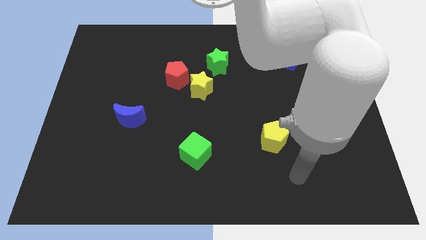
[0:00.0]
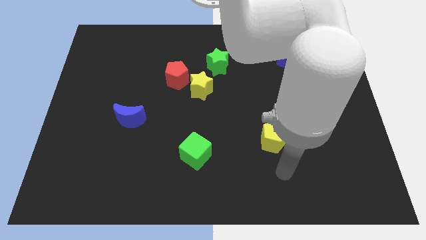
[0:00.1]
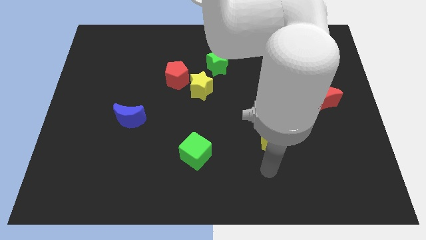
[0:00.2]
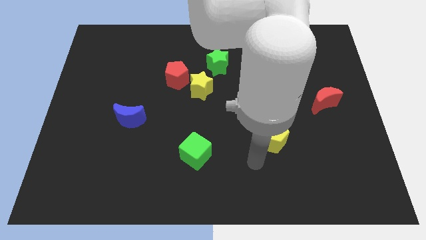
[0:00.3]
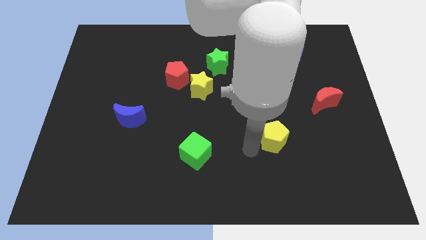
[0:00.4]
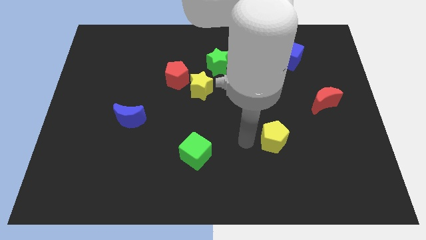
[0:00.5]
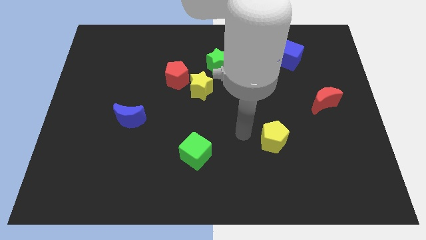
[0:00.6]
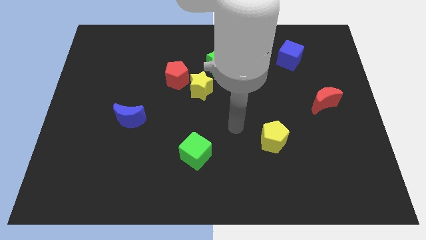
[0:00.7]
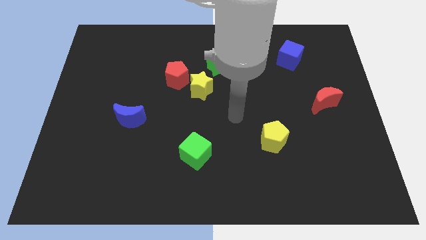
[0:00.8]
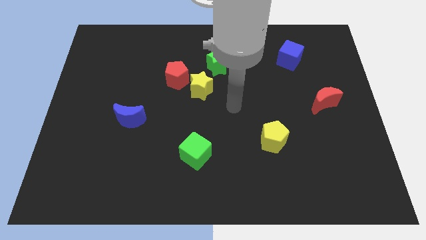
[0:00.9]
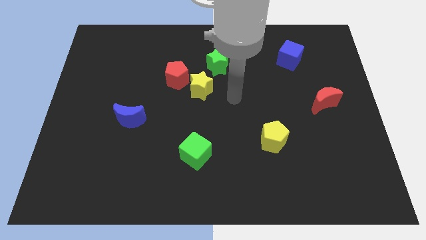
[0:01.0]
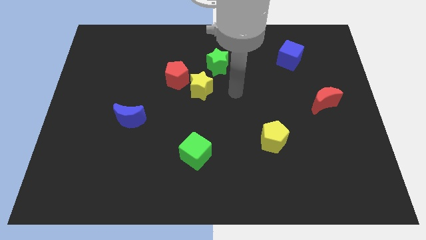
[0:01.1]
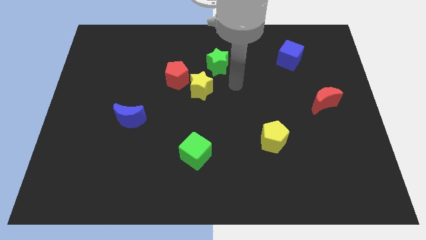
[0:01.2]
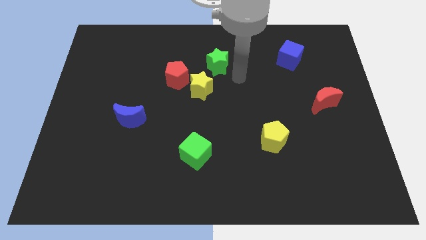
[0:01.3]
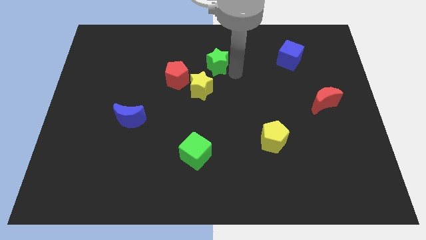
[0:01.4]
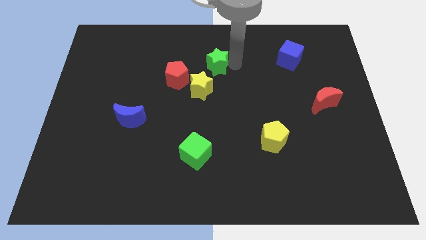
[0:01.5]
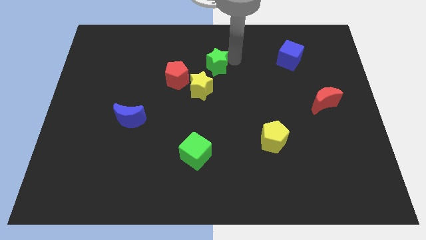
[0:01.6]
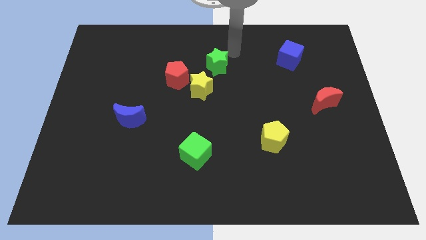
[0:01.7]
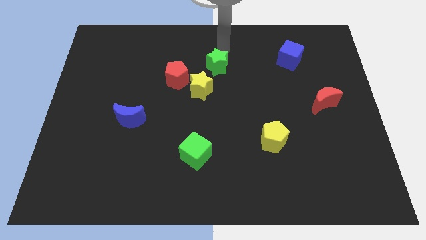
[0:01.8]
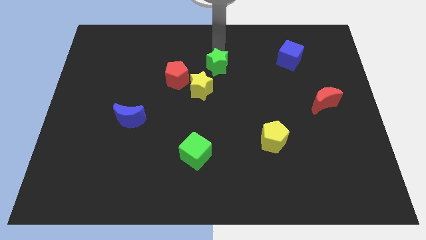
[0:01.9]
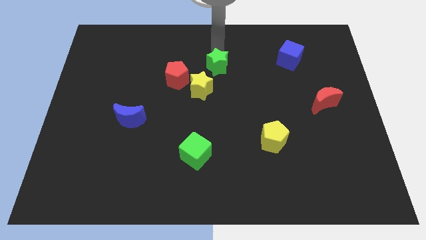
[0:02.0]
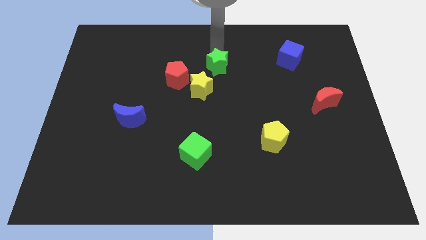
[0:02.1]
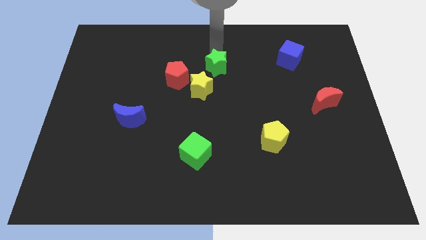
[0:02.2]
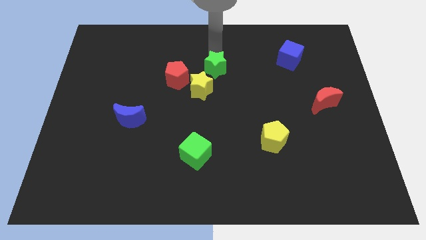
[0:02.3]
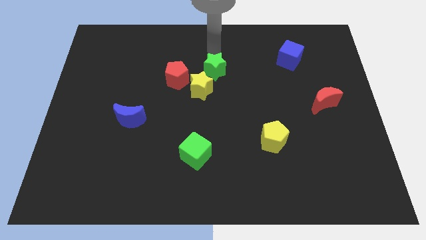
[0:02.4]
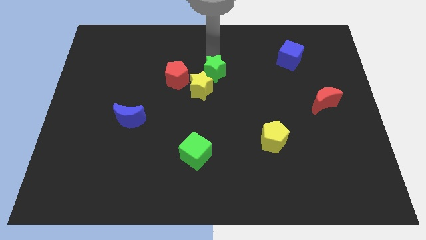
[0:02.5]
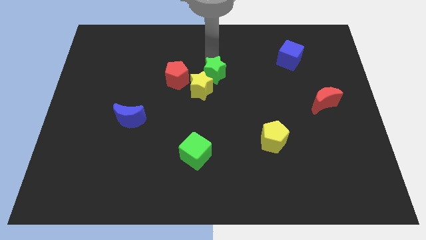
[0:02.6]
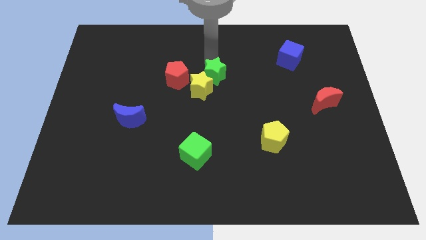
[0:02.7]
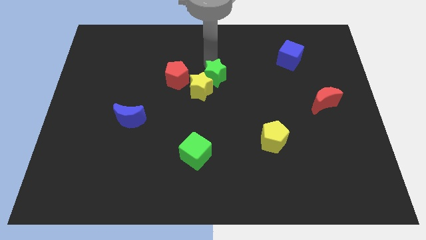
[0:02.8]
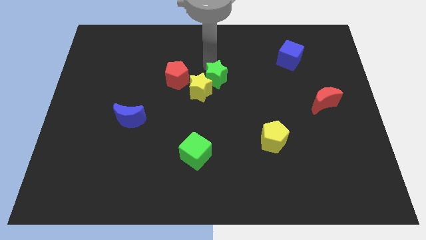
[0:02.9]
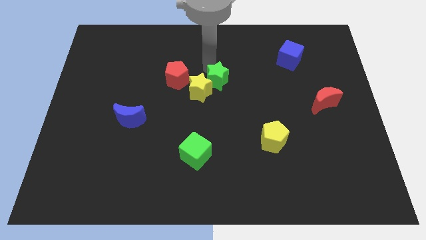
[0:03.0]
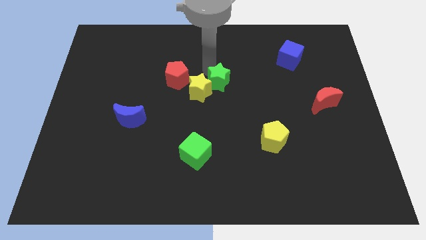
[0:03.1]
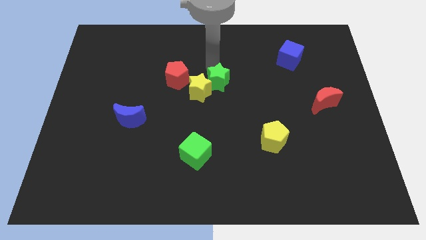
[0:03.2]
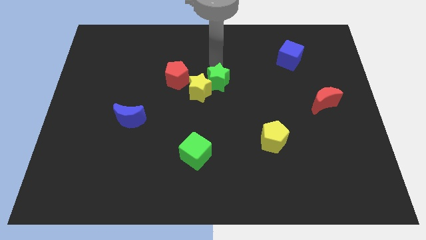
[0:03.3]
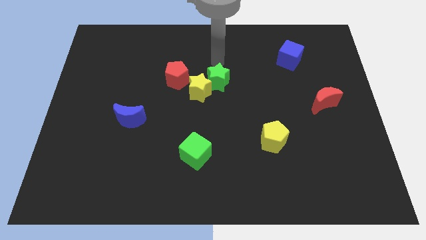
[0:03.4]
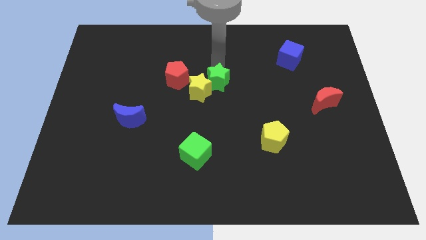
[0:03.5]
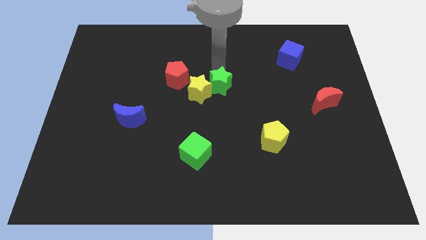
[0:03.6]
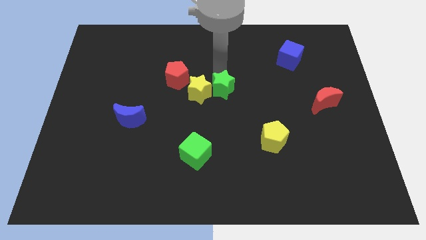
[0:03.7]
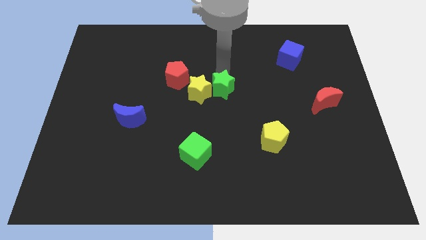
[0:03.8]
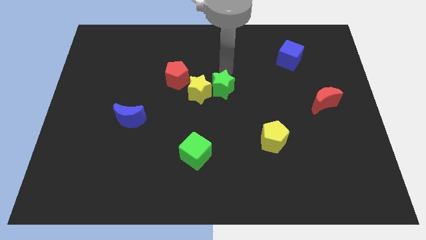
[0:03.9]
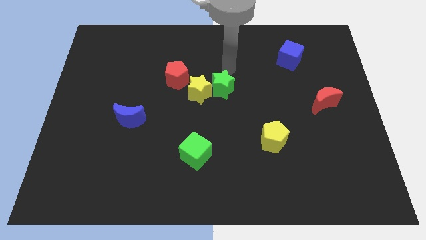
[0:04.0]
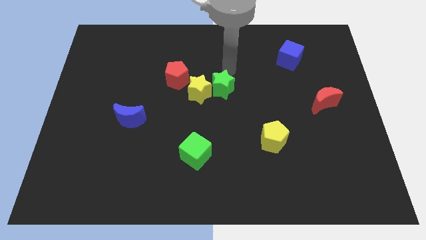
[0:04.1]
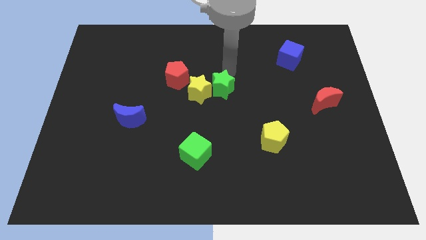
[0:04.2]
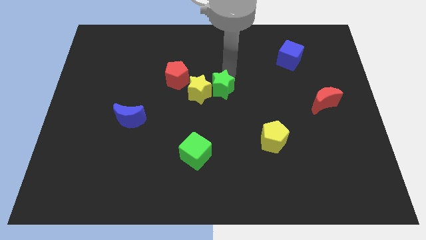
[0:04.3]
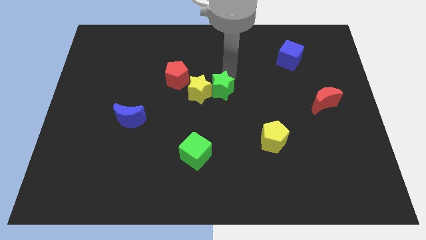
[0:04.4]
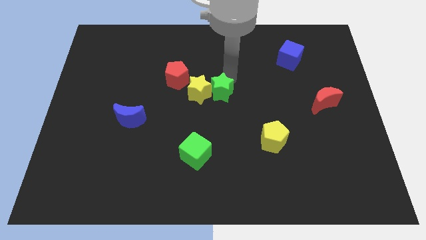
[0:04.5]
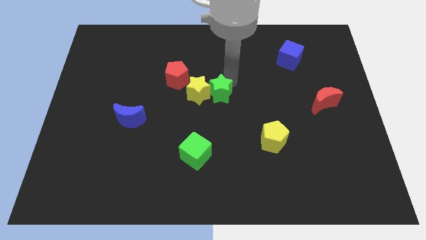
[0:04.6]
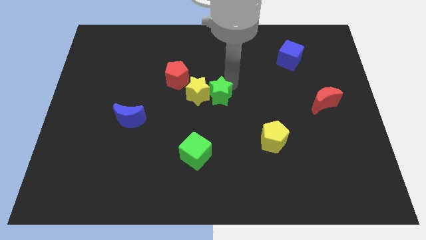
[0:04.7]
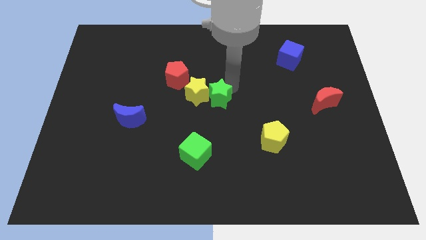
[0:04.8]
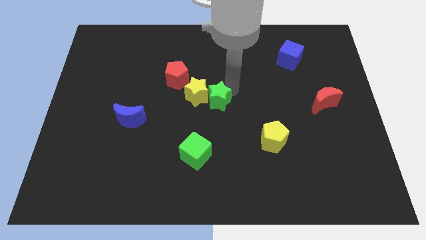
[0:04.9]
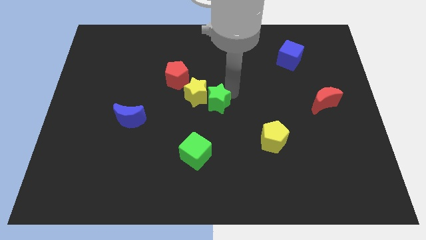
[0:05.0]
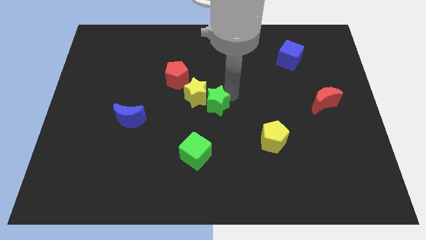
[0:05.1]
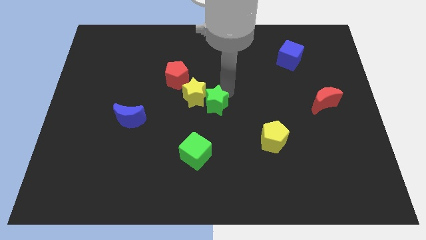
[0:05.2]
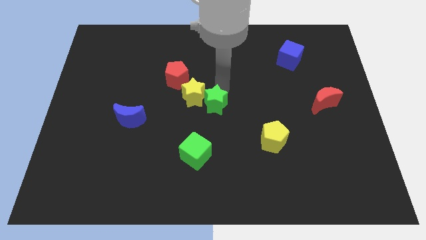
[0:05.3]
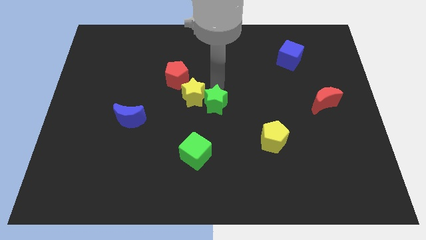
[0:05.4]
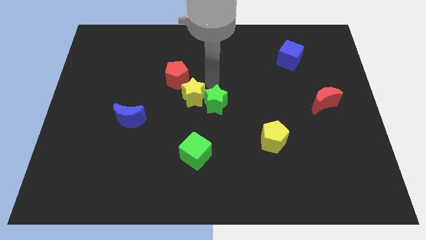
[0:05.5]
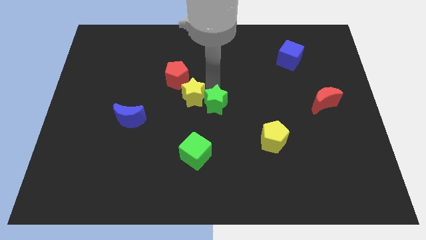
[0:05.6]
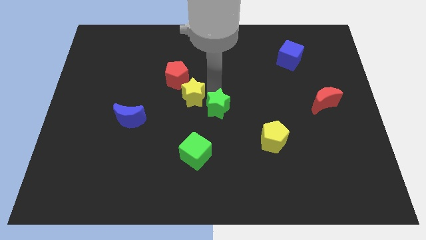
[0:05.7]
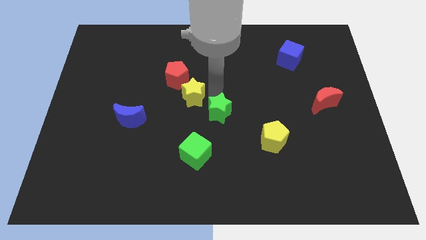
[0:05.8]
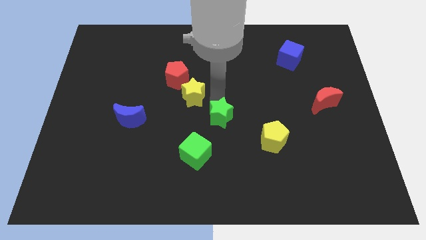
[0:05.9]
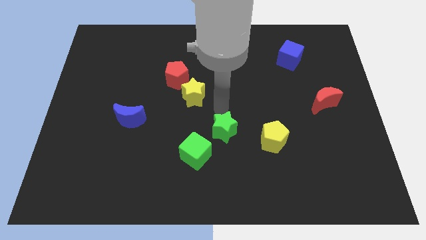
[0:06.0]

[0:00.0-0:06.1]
move the green star down

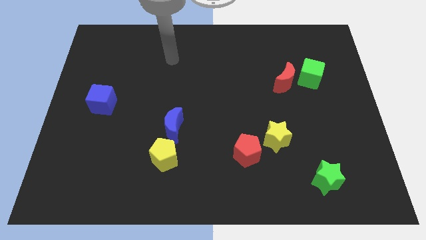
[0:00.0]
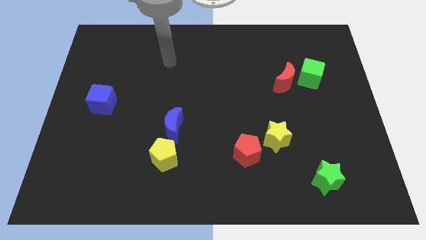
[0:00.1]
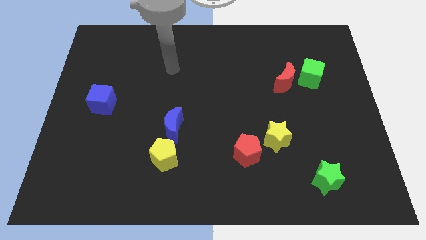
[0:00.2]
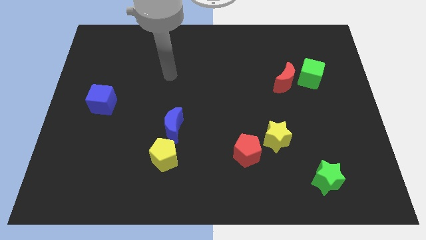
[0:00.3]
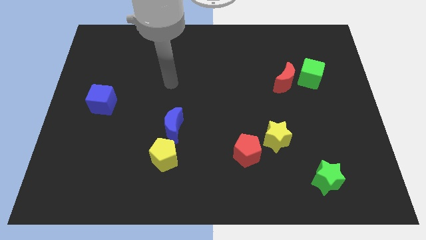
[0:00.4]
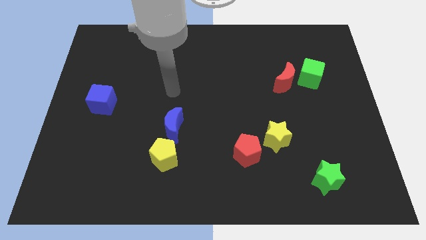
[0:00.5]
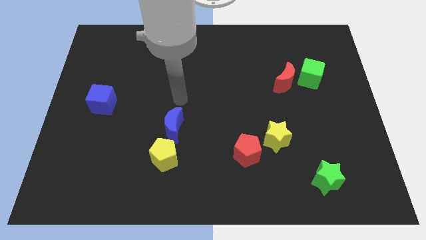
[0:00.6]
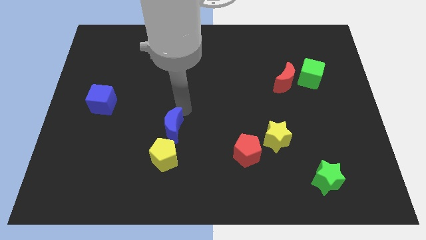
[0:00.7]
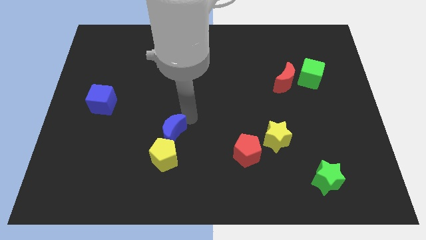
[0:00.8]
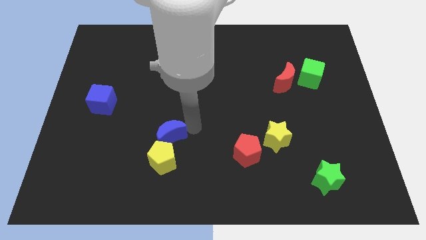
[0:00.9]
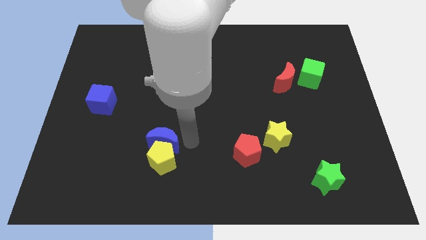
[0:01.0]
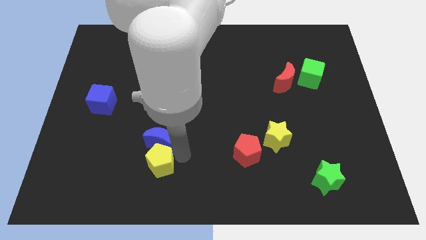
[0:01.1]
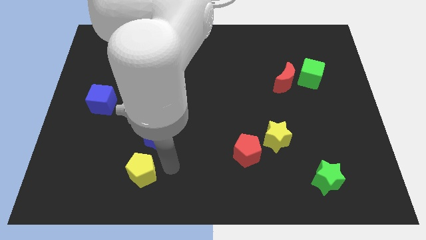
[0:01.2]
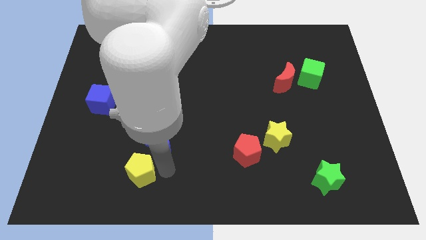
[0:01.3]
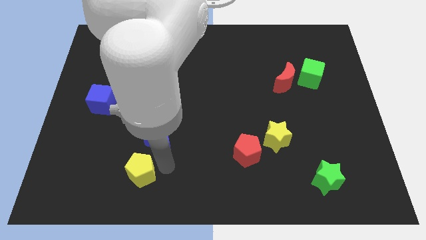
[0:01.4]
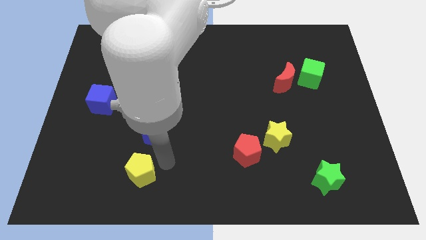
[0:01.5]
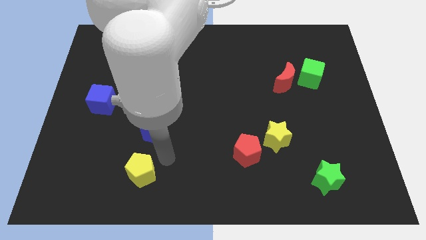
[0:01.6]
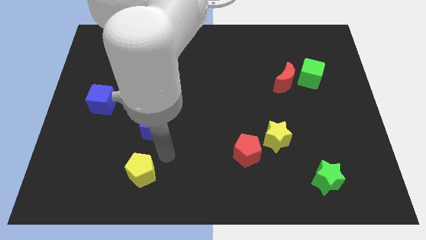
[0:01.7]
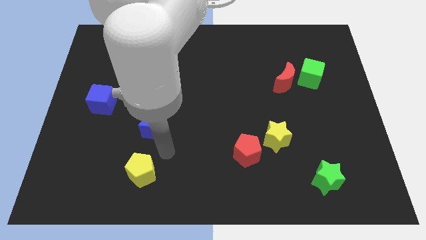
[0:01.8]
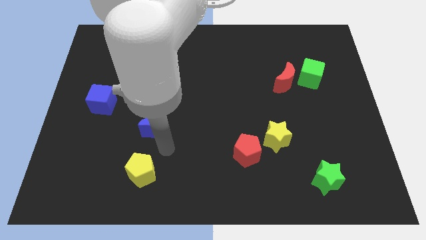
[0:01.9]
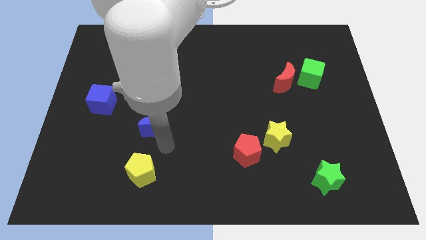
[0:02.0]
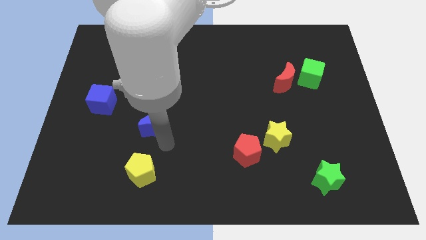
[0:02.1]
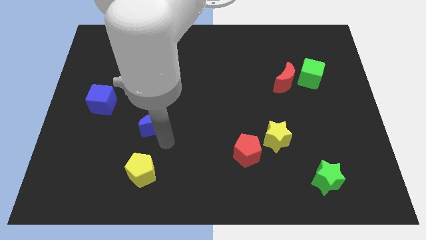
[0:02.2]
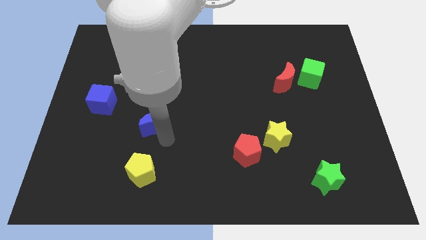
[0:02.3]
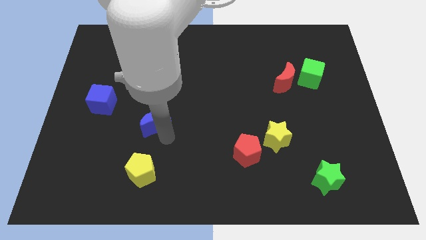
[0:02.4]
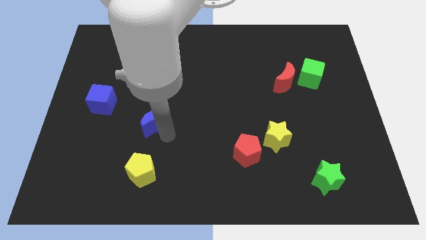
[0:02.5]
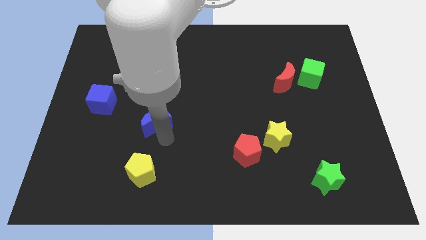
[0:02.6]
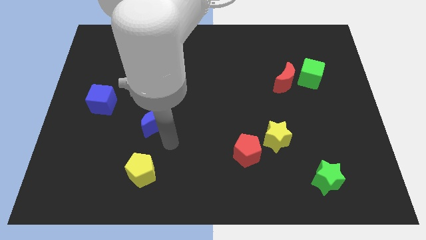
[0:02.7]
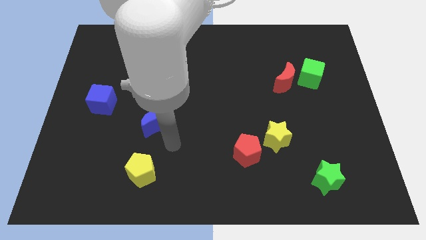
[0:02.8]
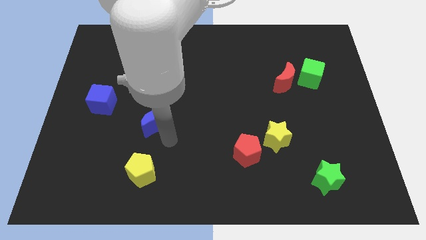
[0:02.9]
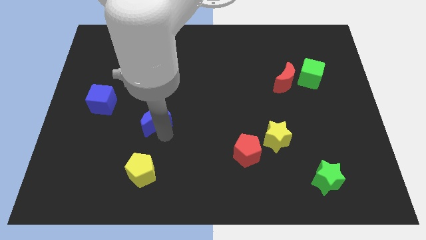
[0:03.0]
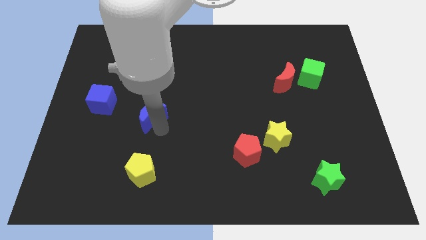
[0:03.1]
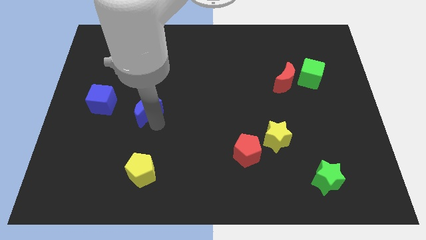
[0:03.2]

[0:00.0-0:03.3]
slightly move the blue moon upwards and then to the left
